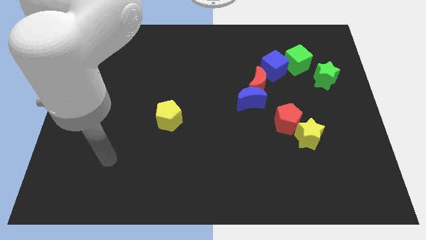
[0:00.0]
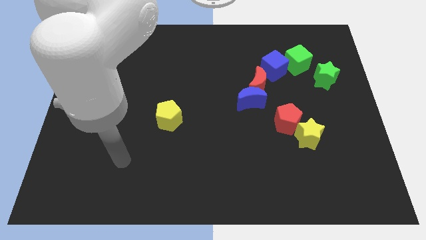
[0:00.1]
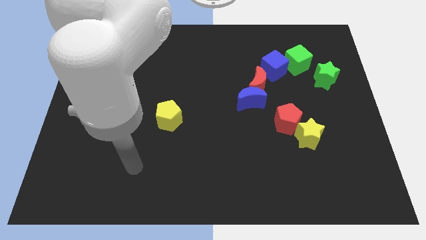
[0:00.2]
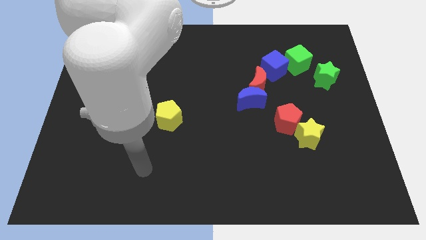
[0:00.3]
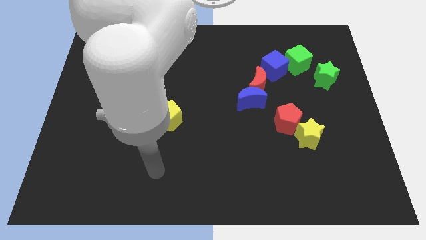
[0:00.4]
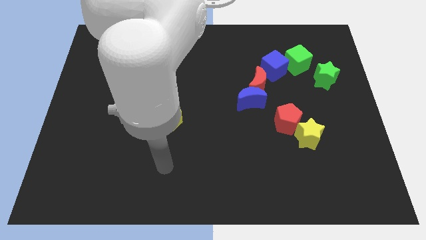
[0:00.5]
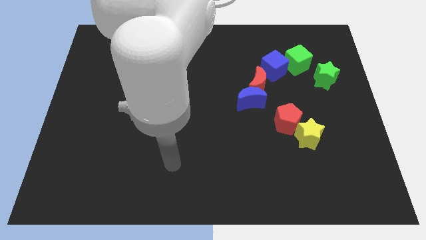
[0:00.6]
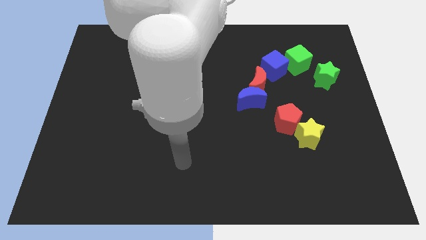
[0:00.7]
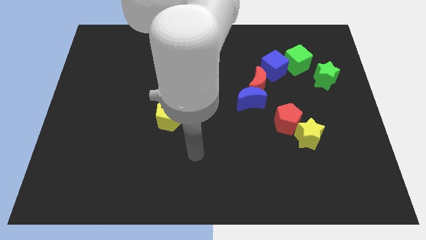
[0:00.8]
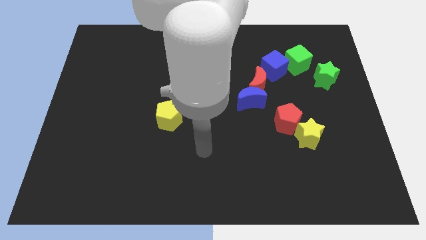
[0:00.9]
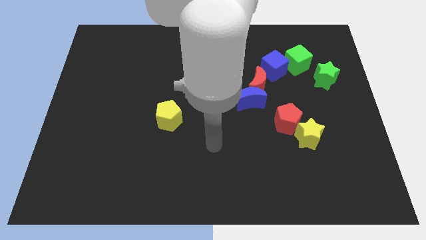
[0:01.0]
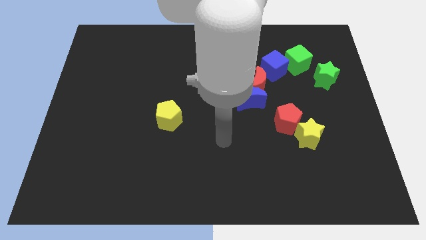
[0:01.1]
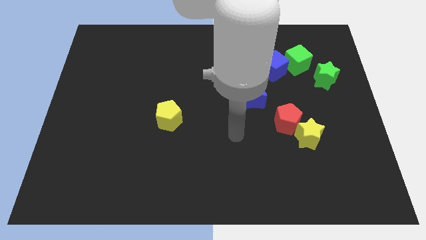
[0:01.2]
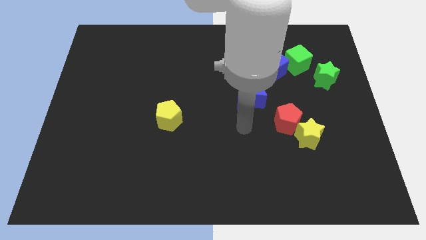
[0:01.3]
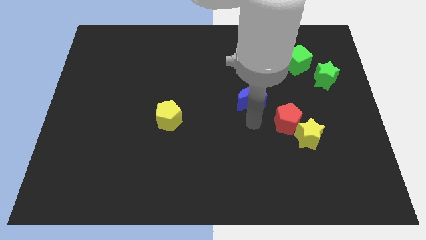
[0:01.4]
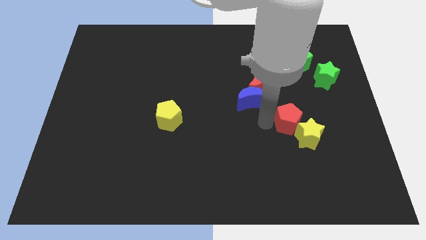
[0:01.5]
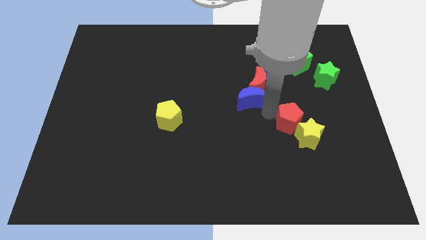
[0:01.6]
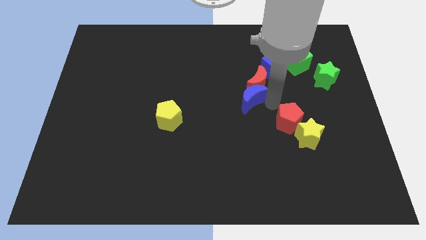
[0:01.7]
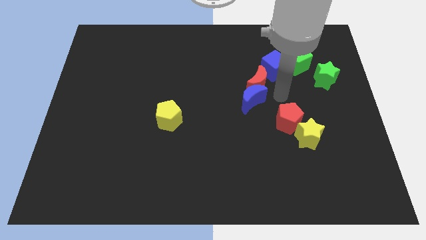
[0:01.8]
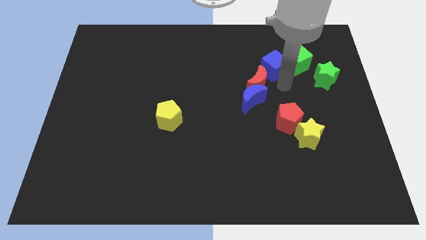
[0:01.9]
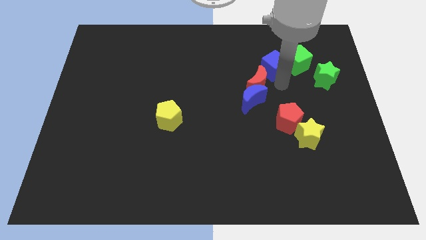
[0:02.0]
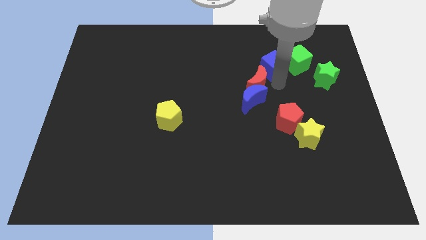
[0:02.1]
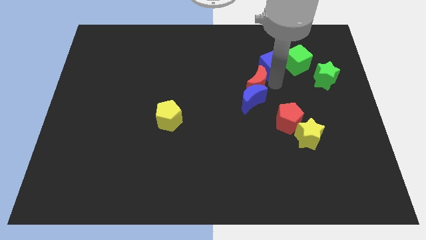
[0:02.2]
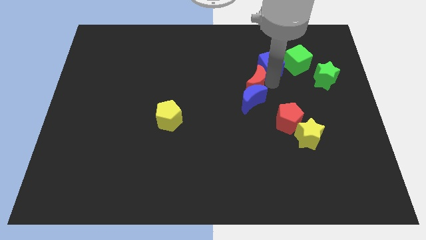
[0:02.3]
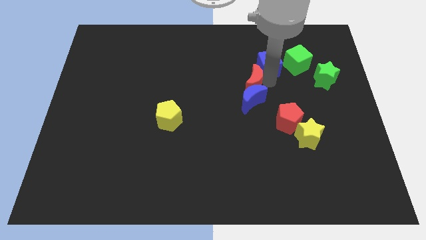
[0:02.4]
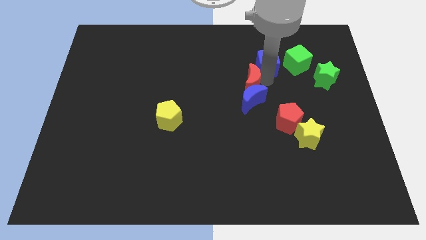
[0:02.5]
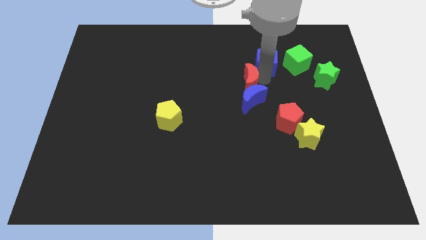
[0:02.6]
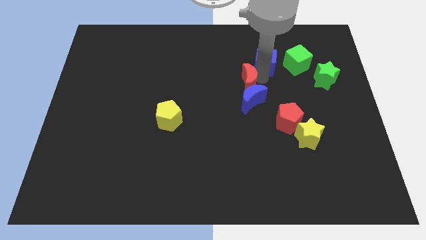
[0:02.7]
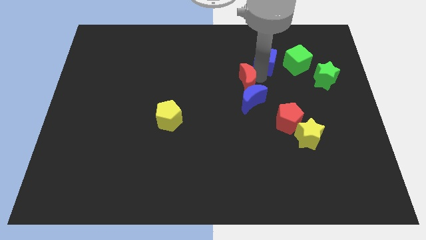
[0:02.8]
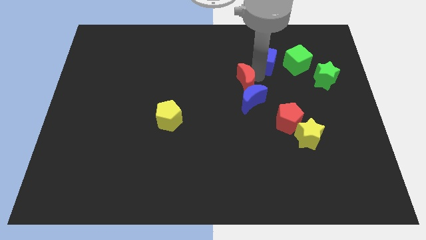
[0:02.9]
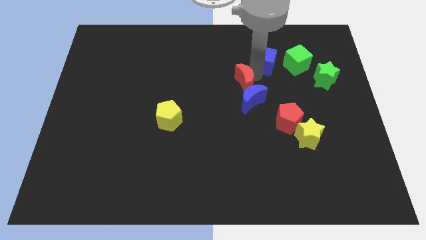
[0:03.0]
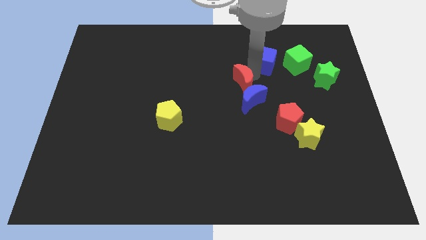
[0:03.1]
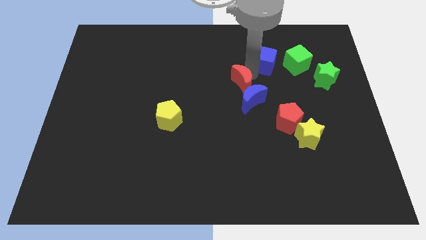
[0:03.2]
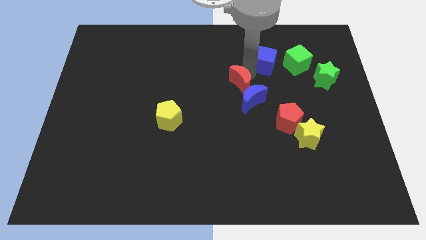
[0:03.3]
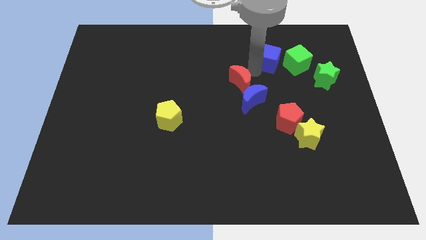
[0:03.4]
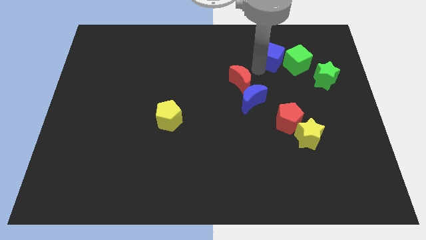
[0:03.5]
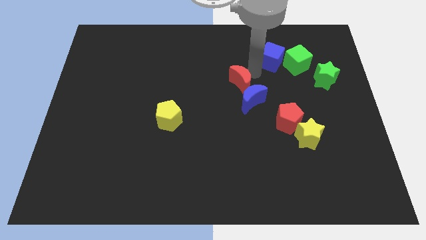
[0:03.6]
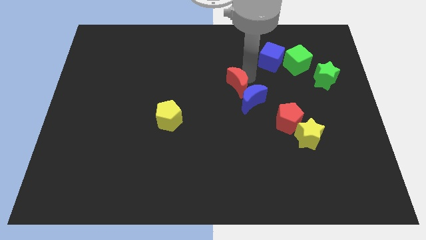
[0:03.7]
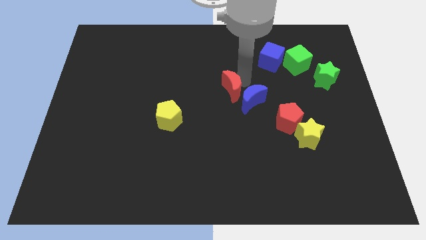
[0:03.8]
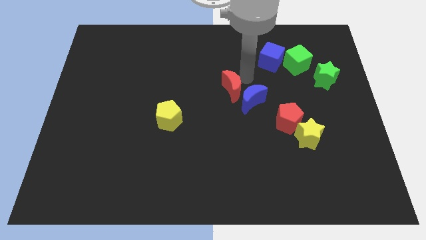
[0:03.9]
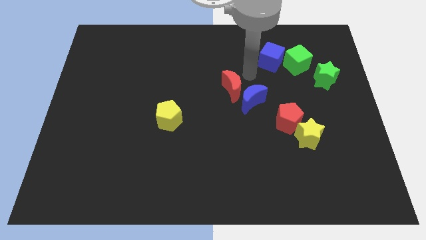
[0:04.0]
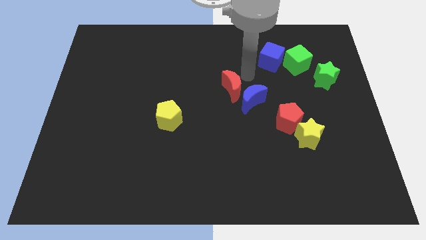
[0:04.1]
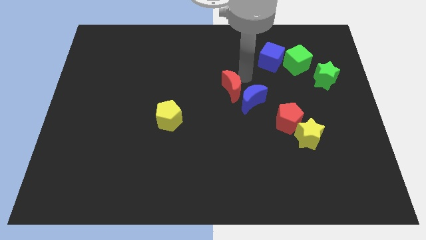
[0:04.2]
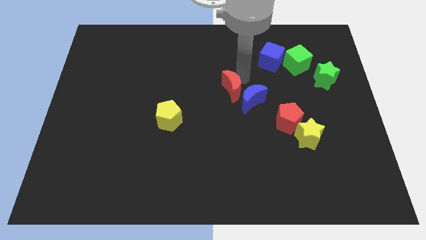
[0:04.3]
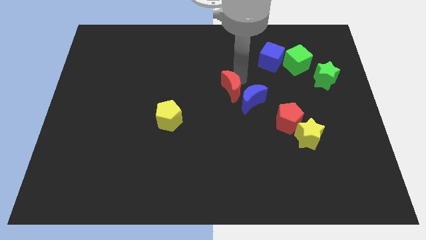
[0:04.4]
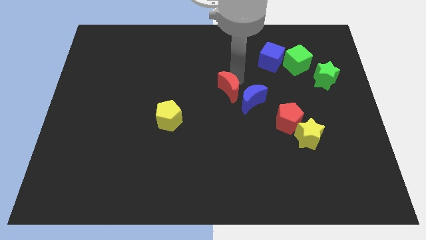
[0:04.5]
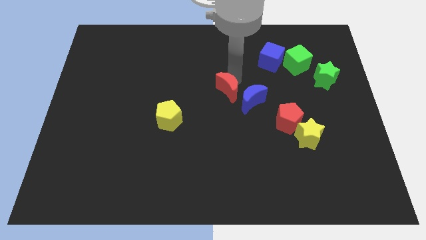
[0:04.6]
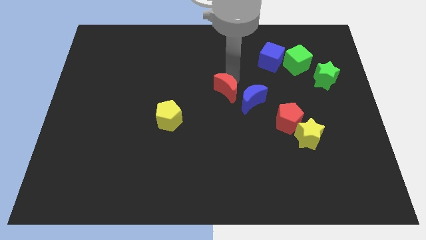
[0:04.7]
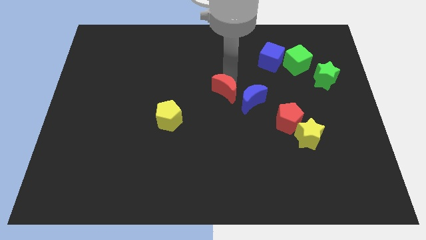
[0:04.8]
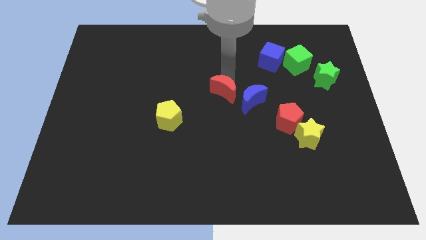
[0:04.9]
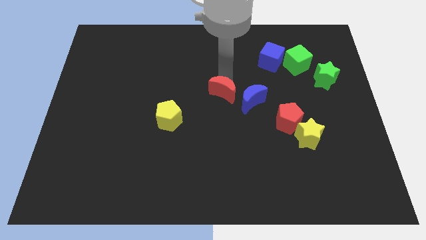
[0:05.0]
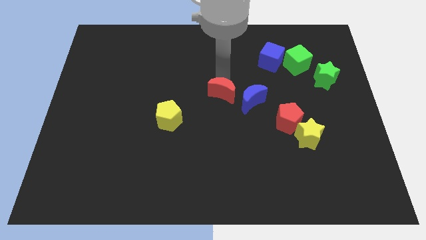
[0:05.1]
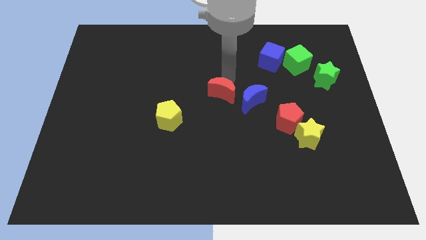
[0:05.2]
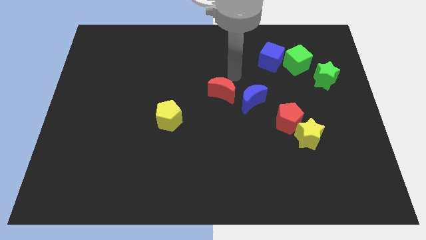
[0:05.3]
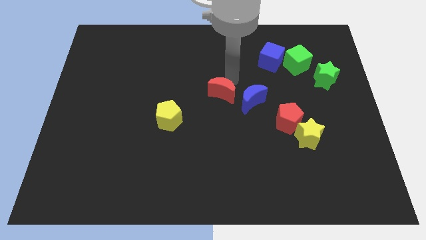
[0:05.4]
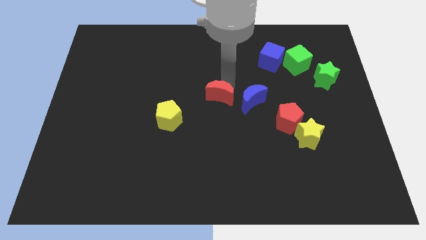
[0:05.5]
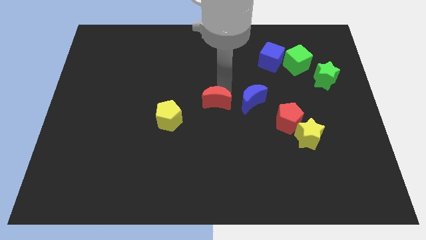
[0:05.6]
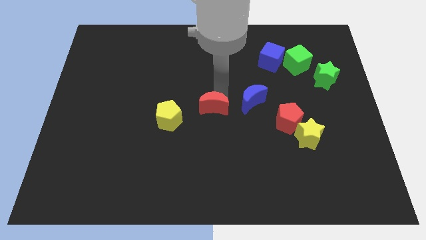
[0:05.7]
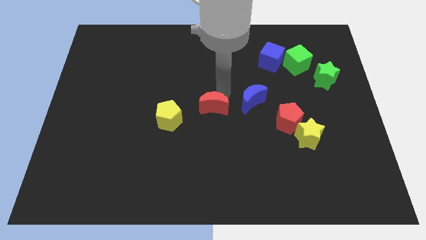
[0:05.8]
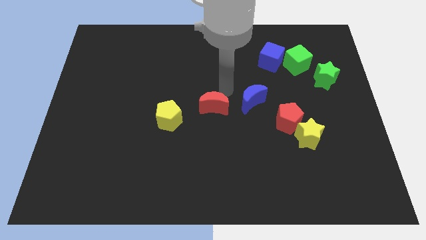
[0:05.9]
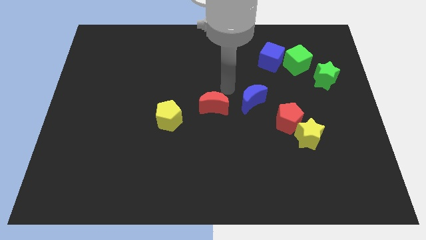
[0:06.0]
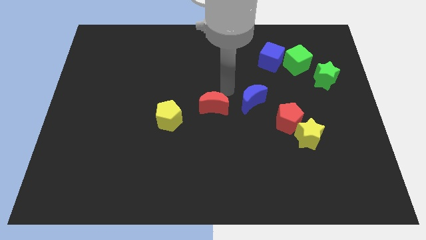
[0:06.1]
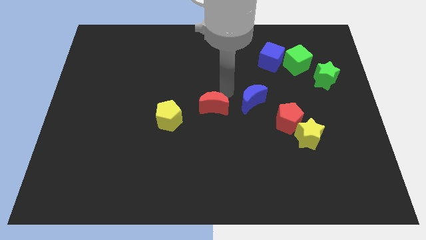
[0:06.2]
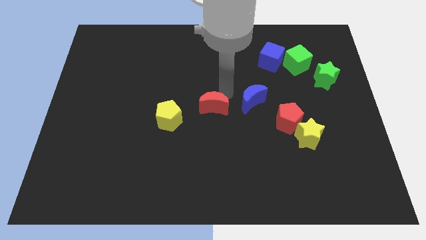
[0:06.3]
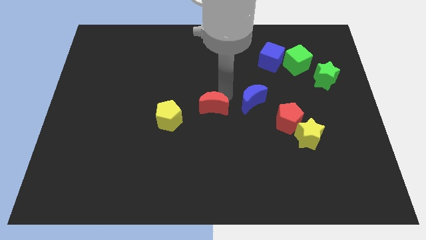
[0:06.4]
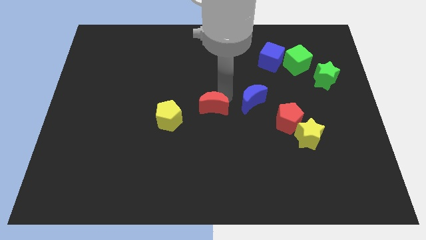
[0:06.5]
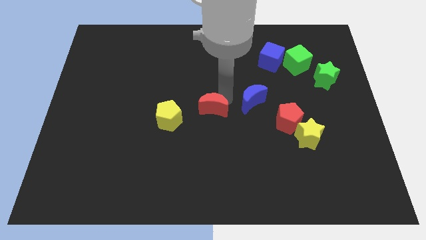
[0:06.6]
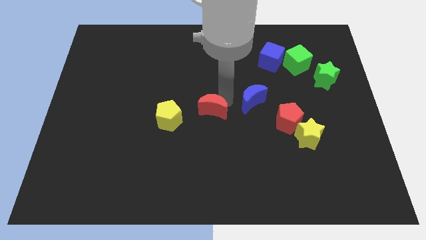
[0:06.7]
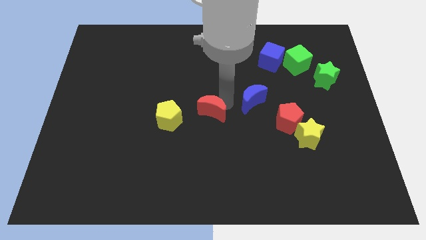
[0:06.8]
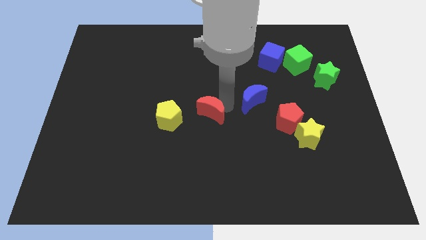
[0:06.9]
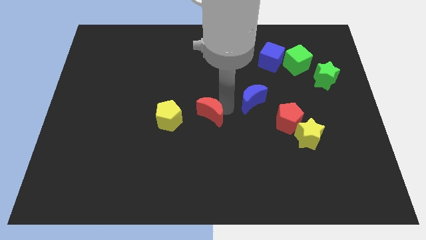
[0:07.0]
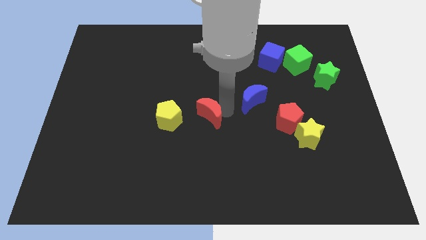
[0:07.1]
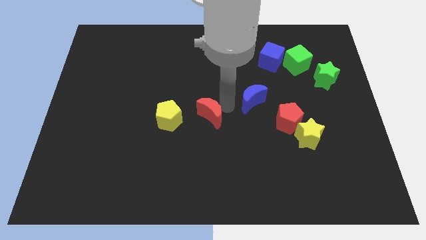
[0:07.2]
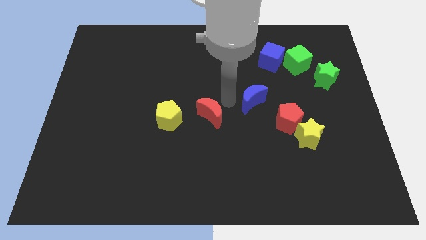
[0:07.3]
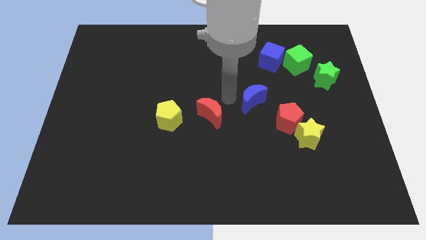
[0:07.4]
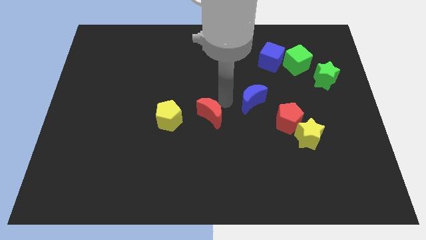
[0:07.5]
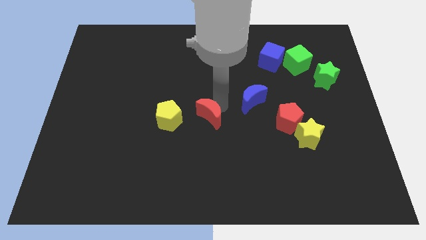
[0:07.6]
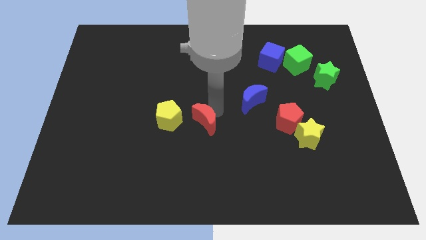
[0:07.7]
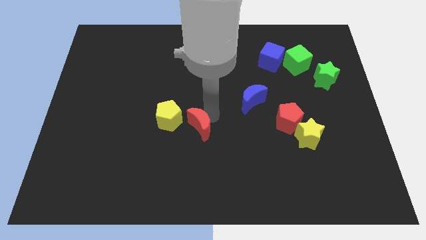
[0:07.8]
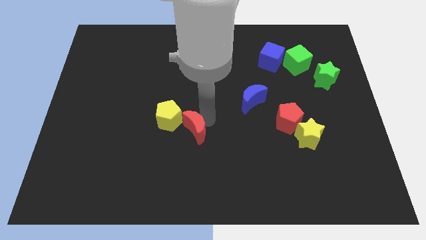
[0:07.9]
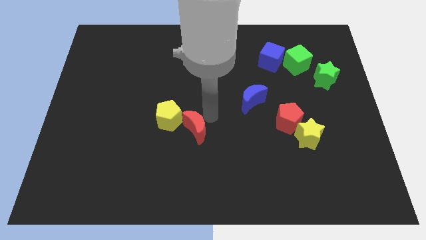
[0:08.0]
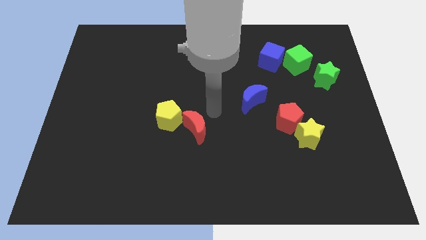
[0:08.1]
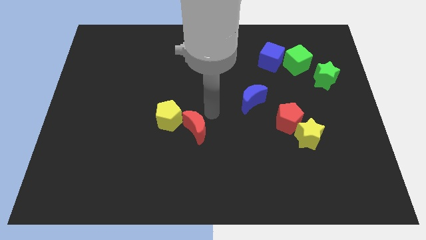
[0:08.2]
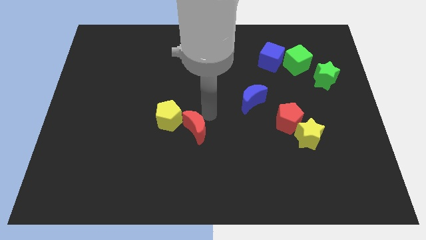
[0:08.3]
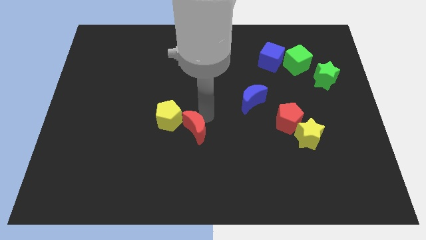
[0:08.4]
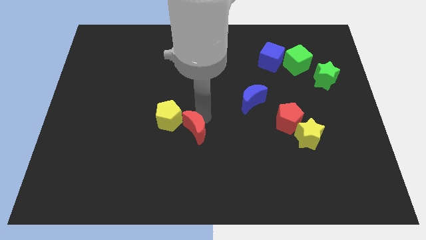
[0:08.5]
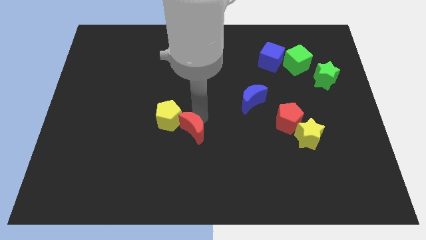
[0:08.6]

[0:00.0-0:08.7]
move the red moon down and to the left
